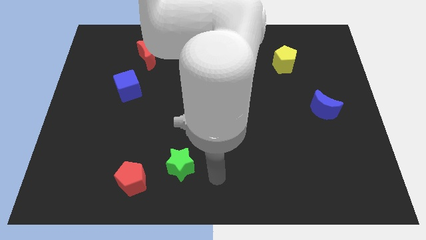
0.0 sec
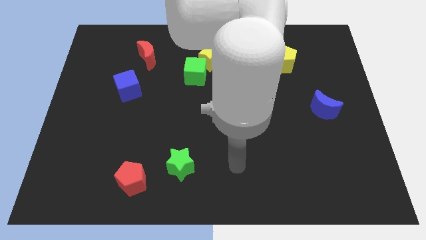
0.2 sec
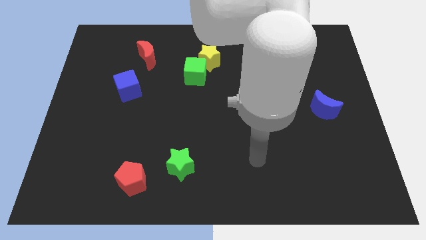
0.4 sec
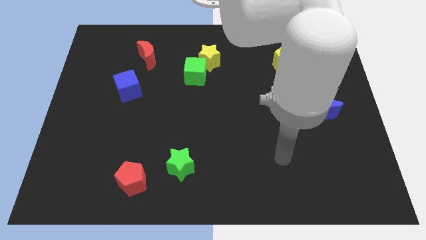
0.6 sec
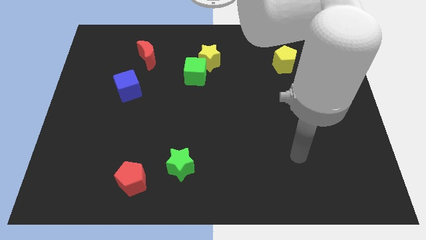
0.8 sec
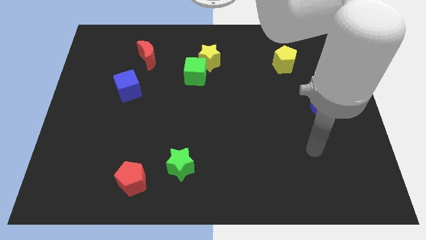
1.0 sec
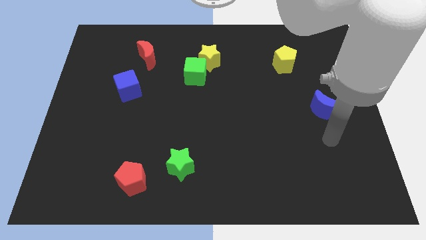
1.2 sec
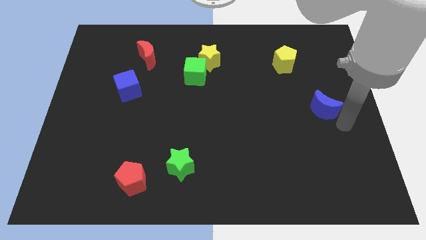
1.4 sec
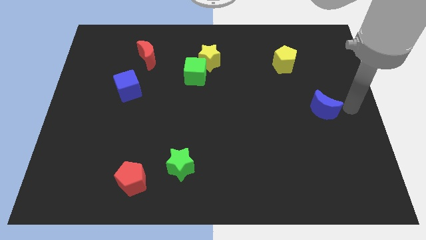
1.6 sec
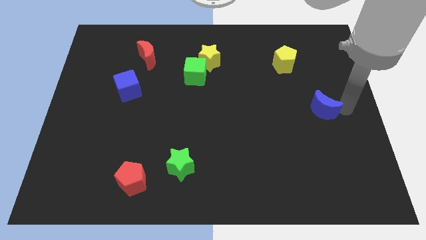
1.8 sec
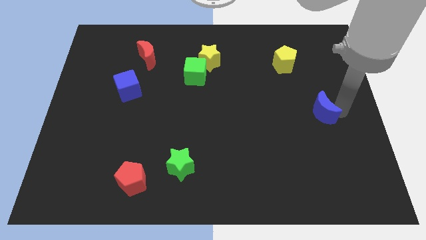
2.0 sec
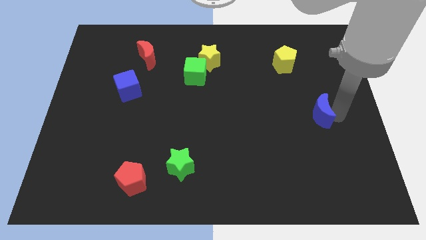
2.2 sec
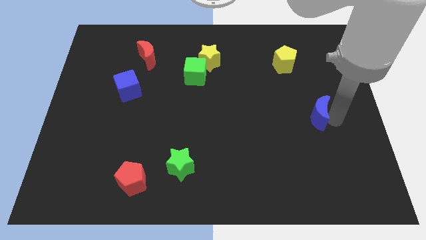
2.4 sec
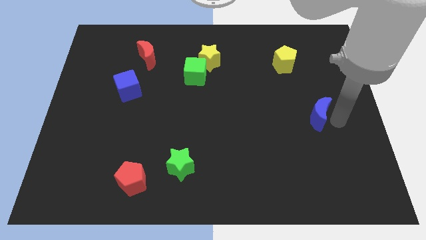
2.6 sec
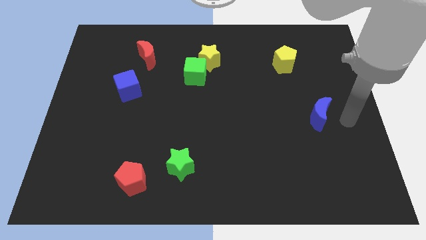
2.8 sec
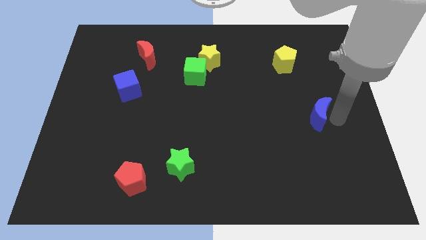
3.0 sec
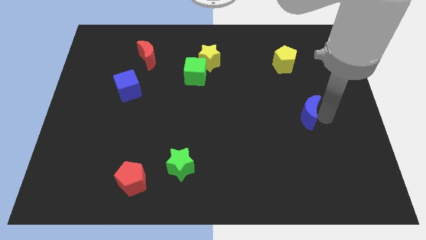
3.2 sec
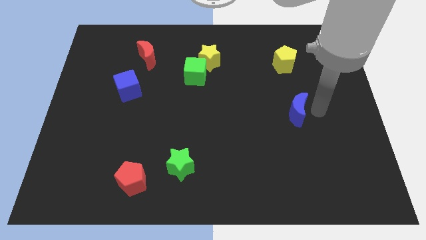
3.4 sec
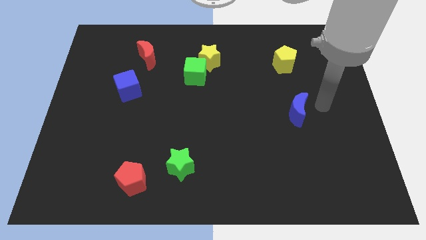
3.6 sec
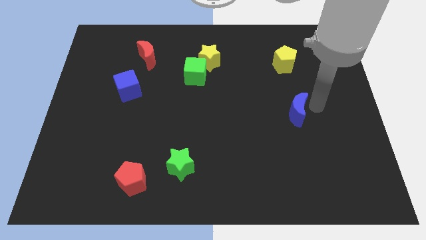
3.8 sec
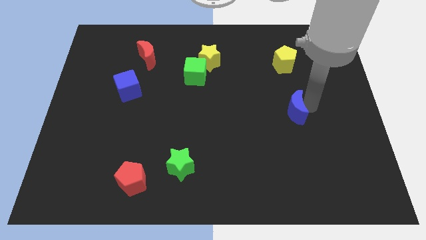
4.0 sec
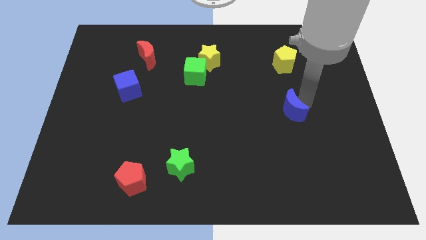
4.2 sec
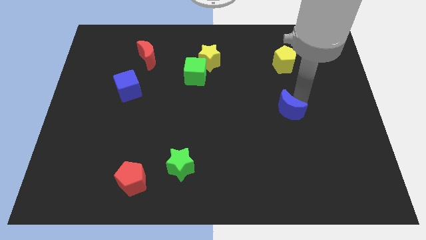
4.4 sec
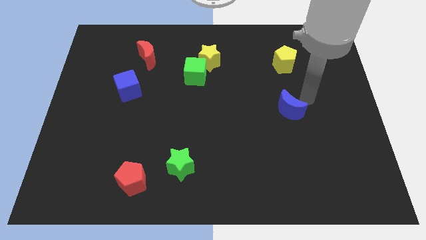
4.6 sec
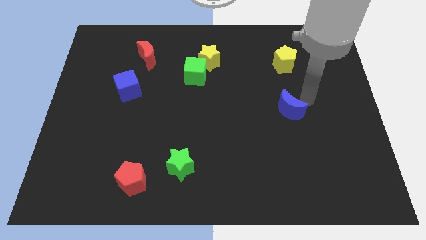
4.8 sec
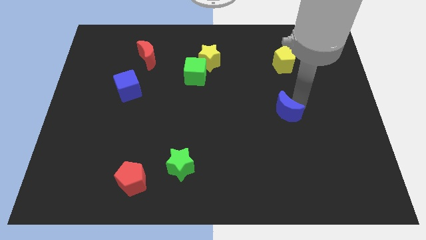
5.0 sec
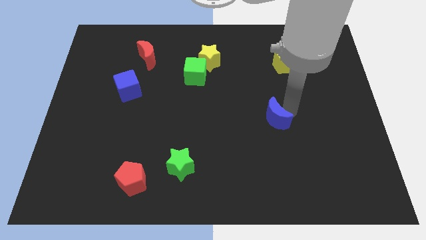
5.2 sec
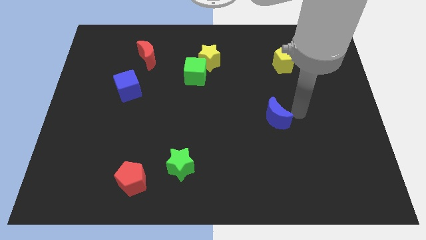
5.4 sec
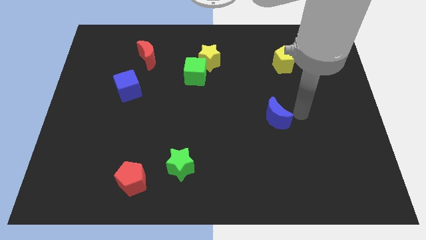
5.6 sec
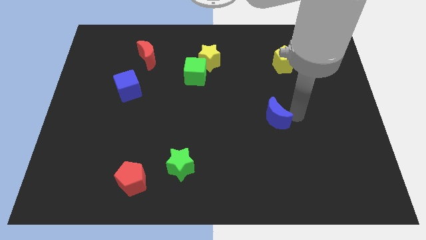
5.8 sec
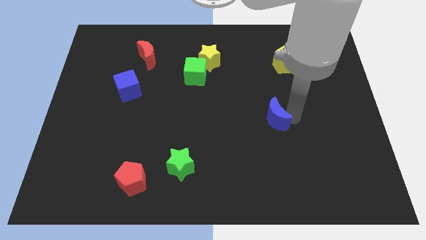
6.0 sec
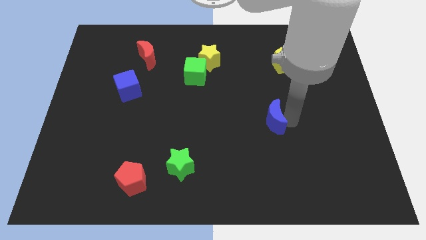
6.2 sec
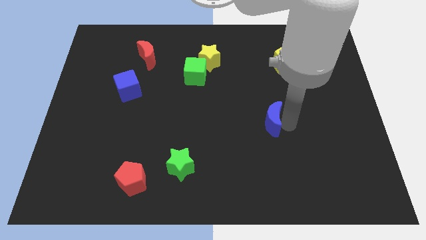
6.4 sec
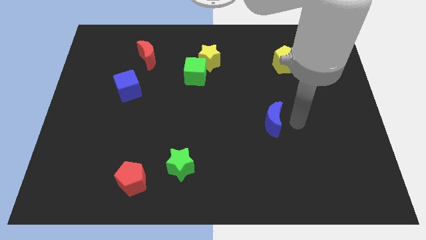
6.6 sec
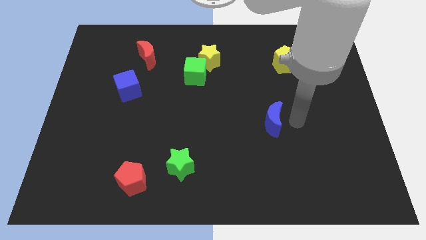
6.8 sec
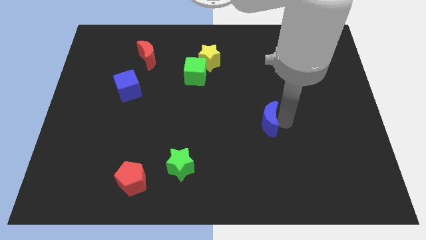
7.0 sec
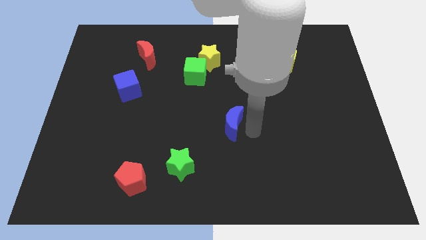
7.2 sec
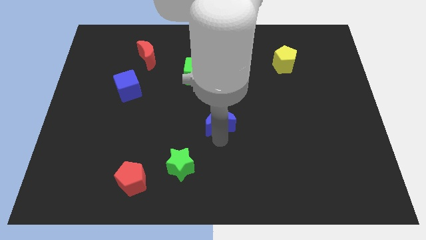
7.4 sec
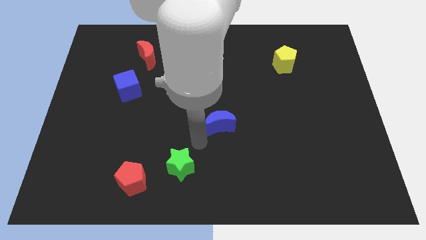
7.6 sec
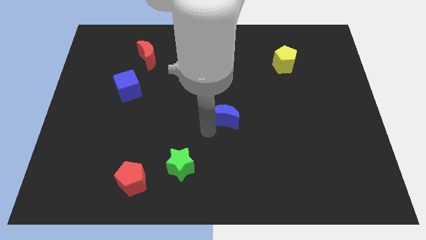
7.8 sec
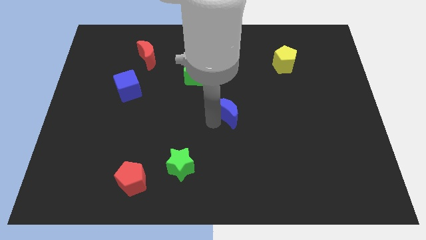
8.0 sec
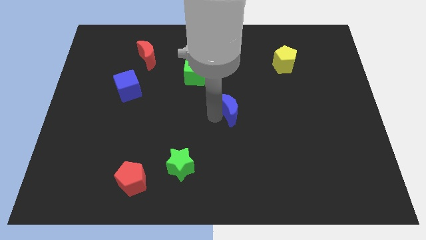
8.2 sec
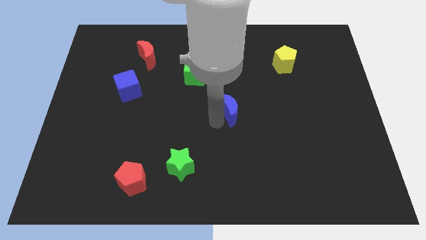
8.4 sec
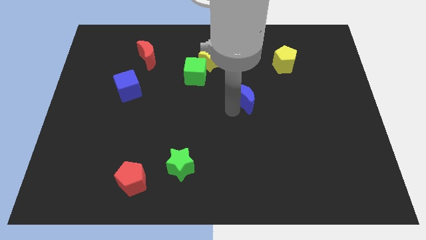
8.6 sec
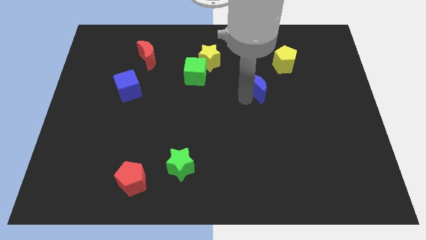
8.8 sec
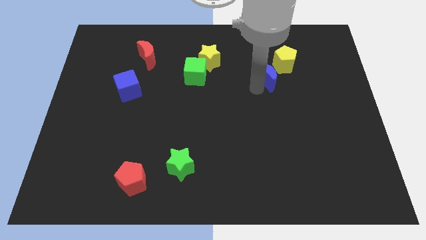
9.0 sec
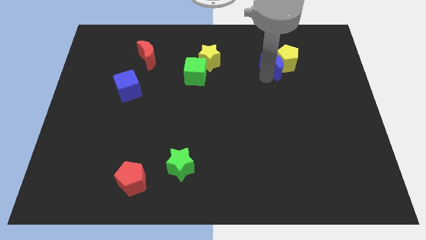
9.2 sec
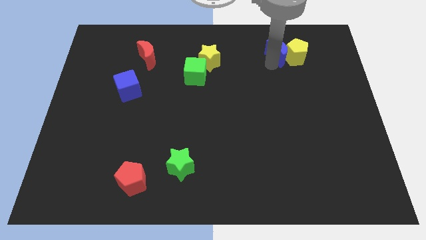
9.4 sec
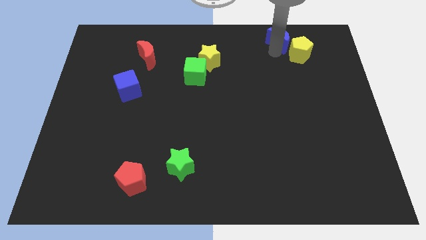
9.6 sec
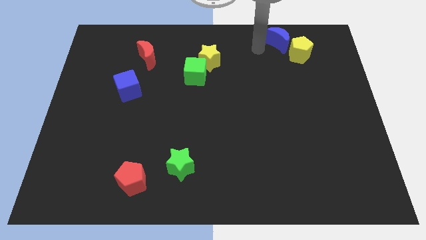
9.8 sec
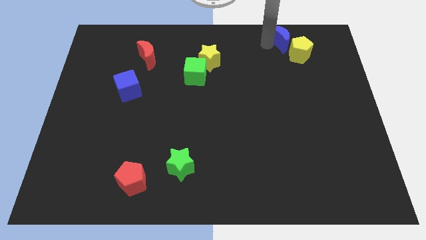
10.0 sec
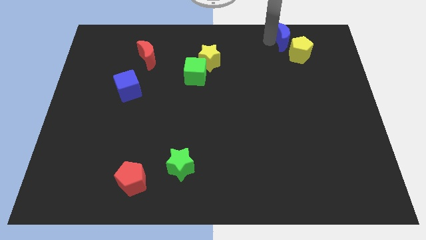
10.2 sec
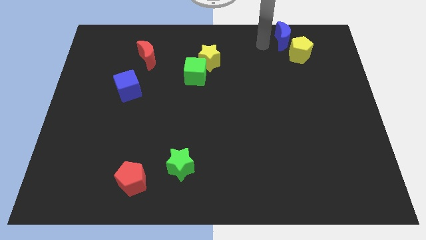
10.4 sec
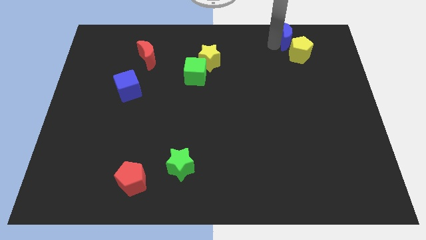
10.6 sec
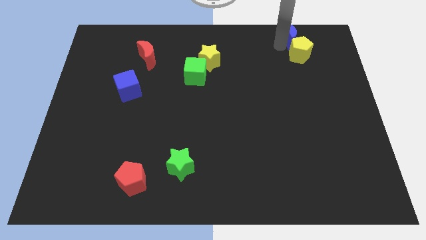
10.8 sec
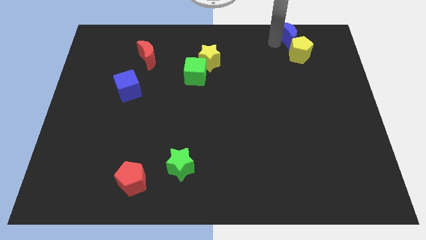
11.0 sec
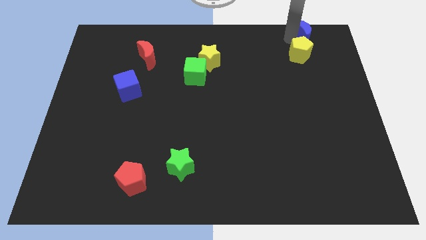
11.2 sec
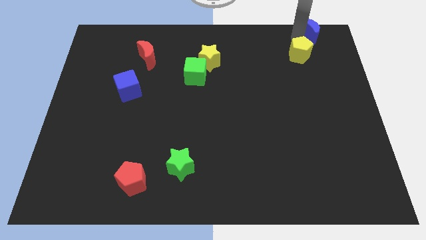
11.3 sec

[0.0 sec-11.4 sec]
move the blue moon to the top right of the board

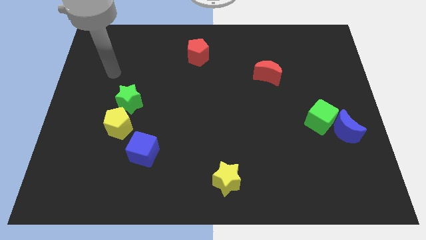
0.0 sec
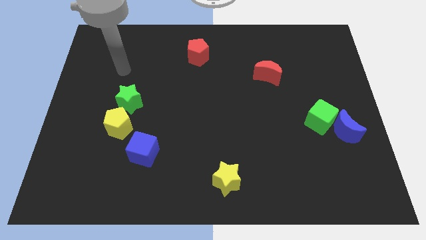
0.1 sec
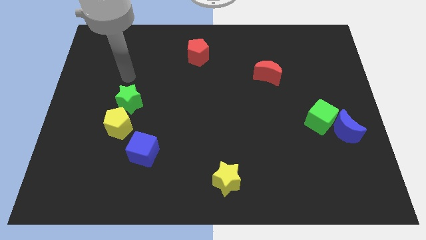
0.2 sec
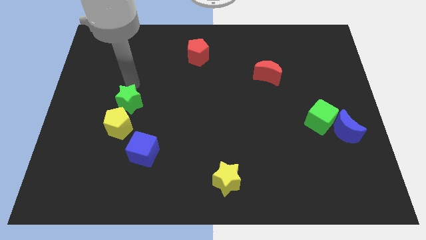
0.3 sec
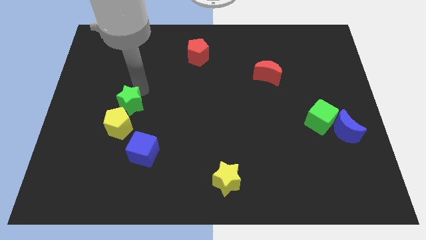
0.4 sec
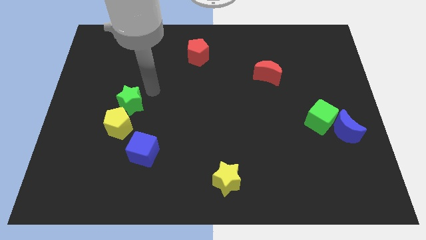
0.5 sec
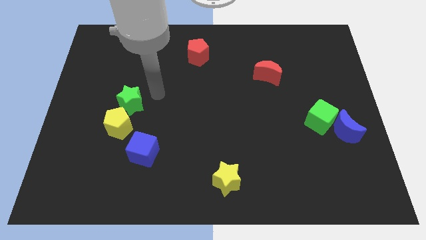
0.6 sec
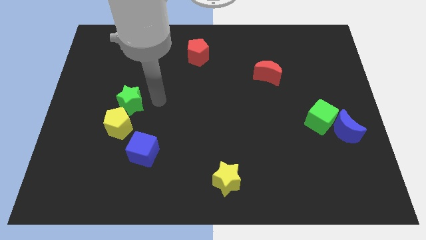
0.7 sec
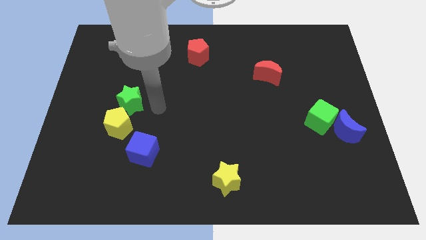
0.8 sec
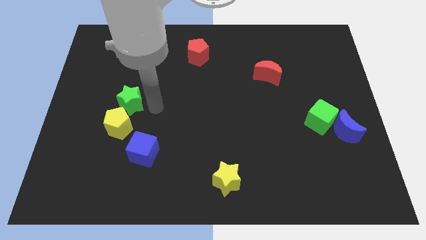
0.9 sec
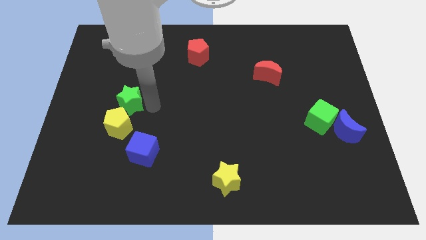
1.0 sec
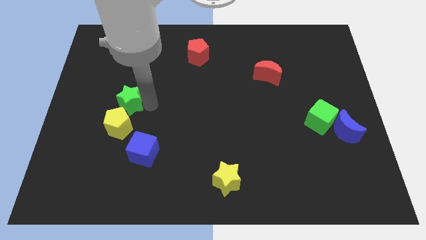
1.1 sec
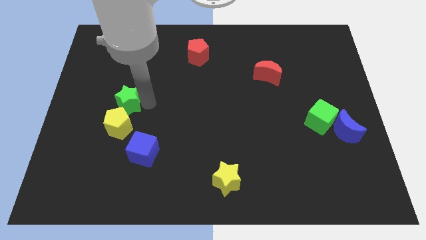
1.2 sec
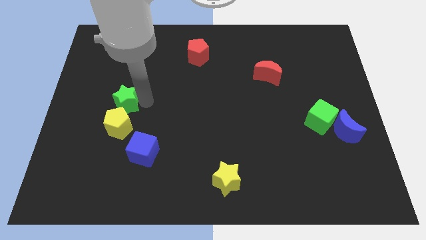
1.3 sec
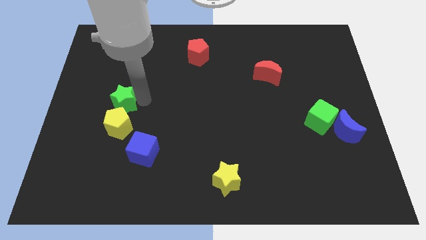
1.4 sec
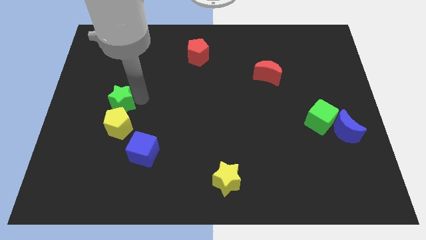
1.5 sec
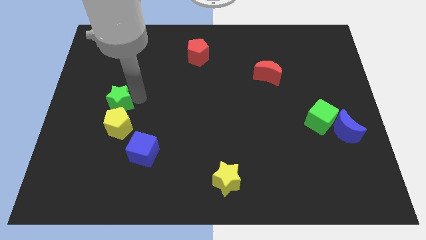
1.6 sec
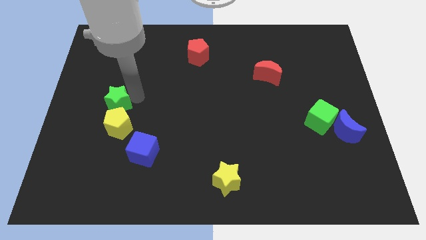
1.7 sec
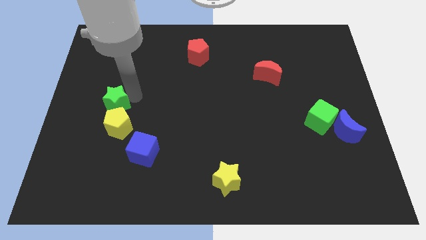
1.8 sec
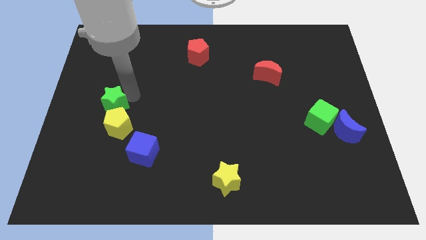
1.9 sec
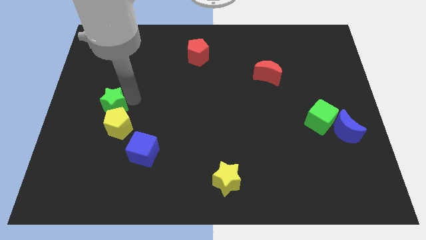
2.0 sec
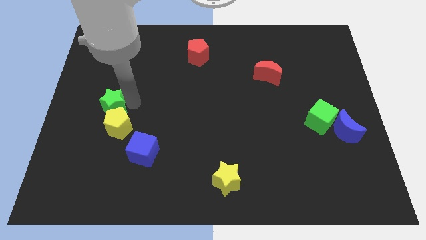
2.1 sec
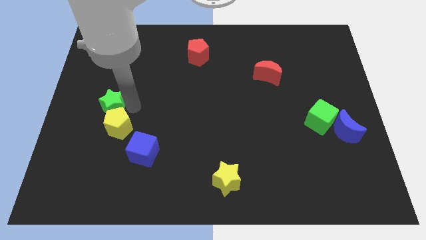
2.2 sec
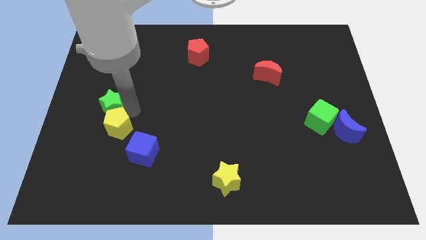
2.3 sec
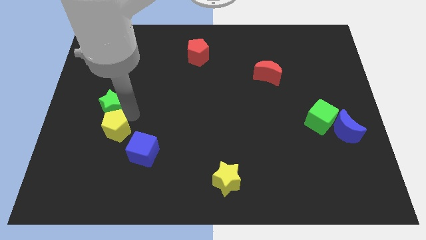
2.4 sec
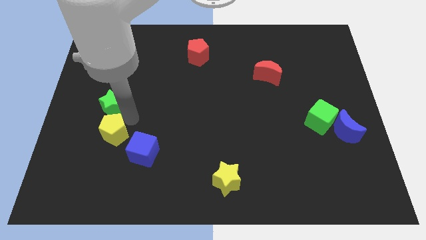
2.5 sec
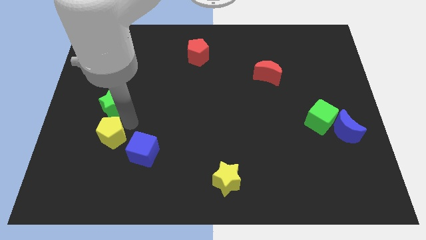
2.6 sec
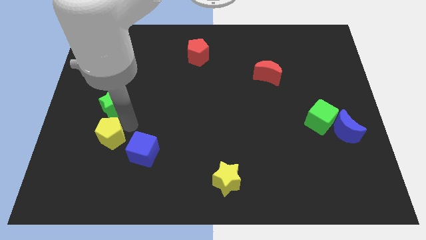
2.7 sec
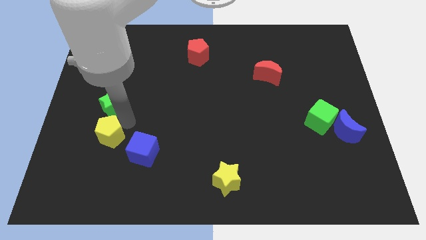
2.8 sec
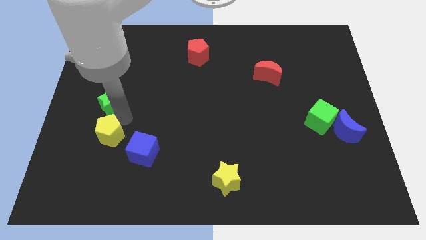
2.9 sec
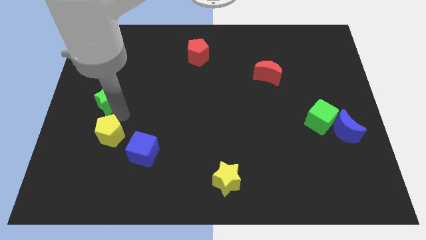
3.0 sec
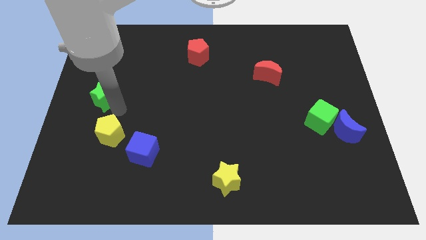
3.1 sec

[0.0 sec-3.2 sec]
slide the green star to the left side
